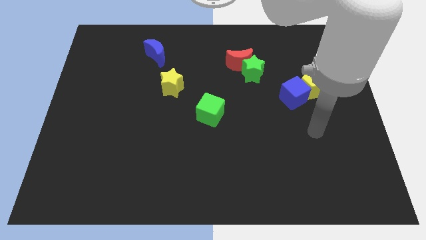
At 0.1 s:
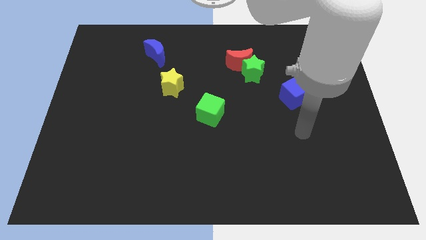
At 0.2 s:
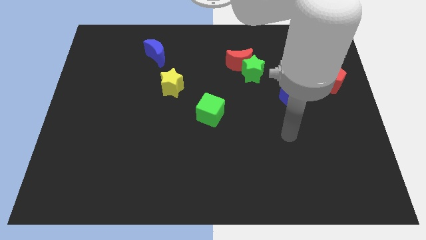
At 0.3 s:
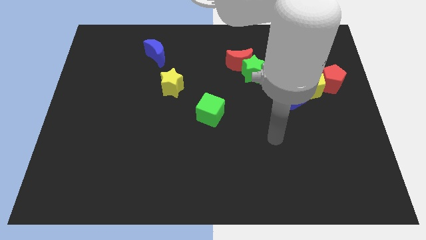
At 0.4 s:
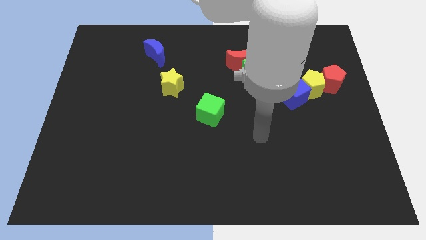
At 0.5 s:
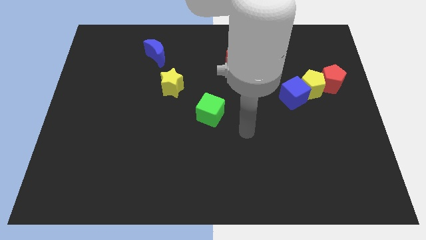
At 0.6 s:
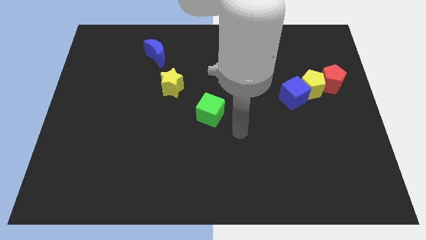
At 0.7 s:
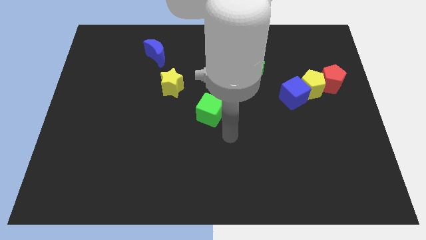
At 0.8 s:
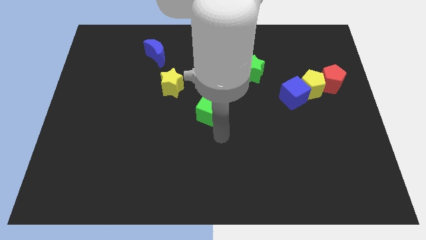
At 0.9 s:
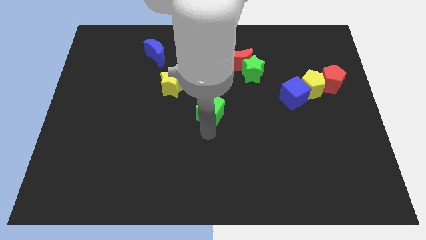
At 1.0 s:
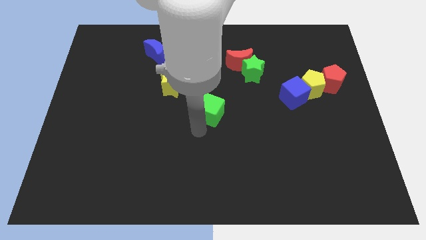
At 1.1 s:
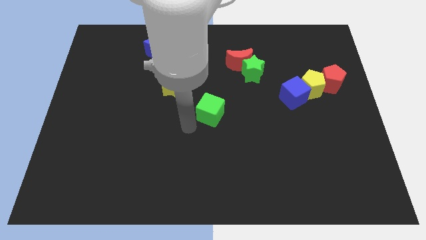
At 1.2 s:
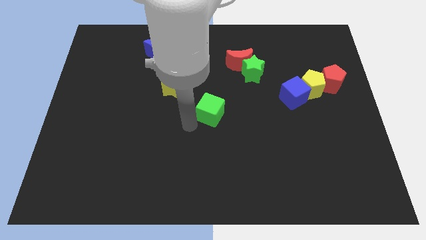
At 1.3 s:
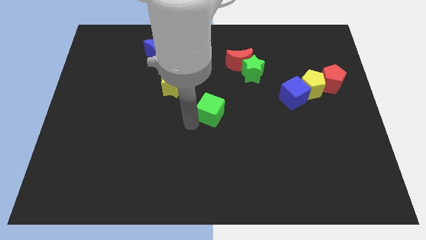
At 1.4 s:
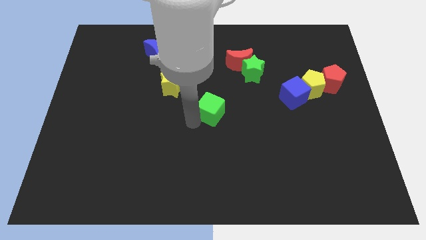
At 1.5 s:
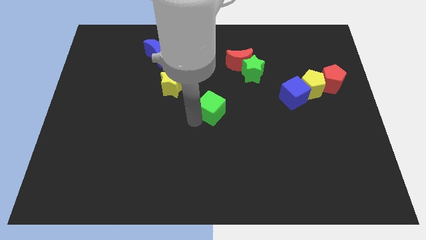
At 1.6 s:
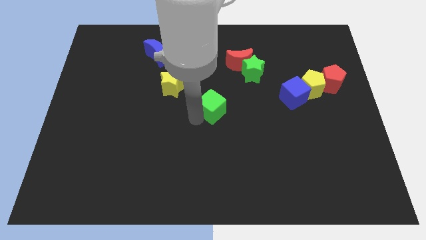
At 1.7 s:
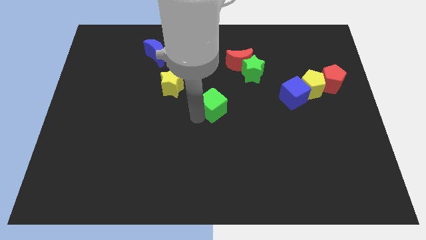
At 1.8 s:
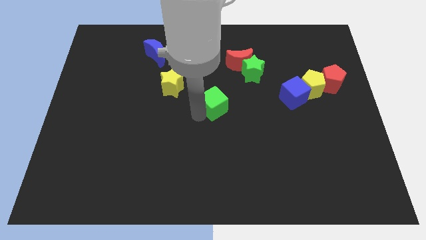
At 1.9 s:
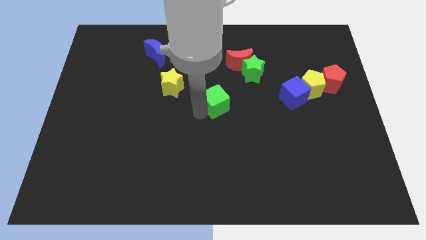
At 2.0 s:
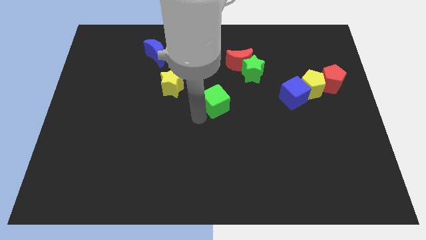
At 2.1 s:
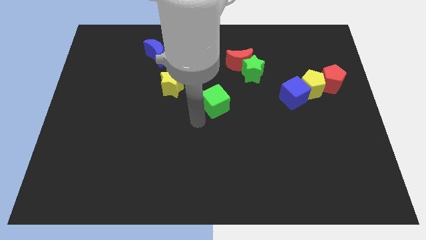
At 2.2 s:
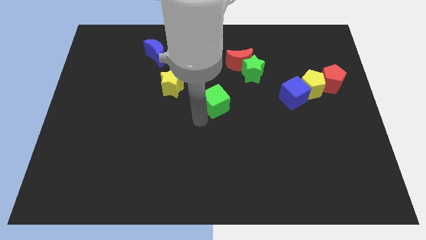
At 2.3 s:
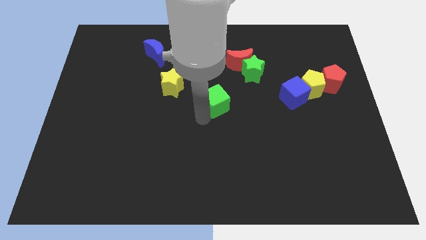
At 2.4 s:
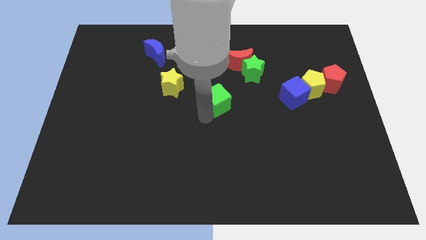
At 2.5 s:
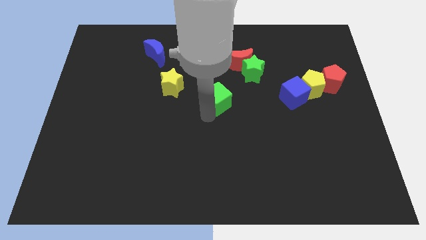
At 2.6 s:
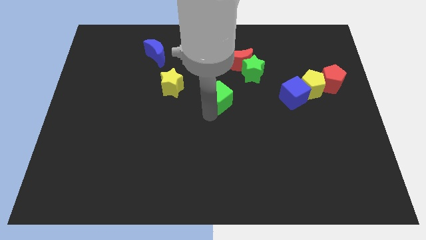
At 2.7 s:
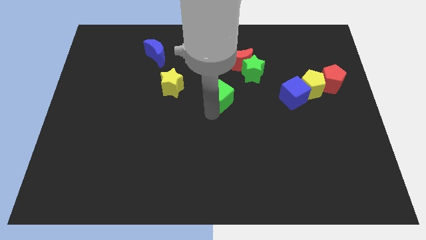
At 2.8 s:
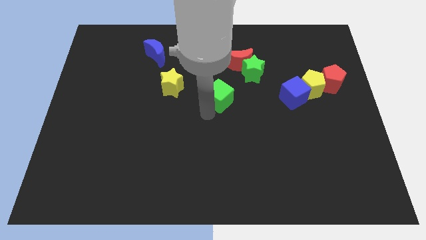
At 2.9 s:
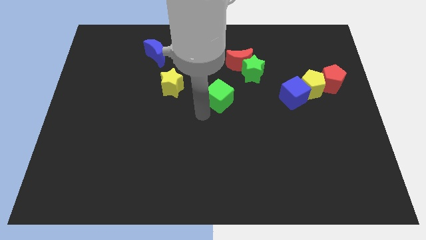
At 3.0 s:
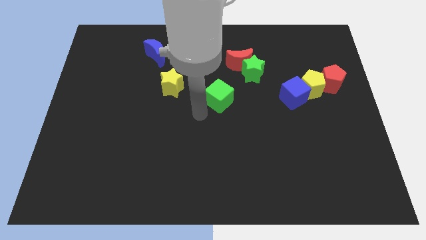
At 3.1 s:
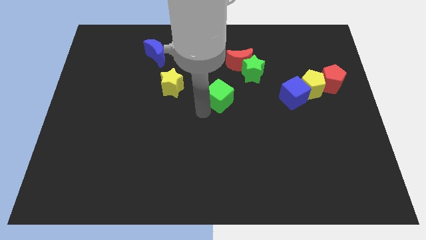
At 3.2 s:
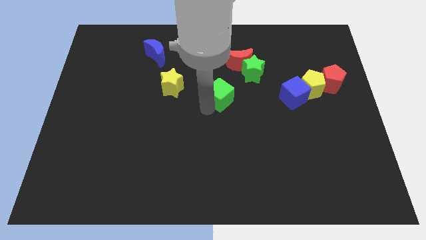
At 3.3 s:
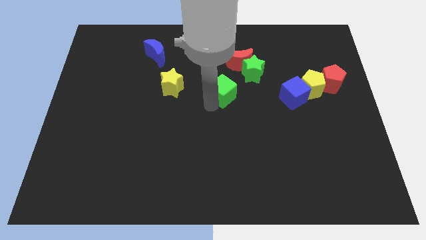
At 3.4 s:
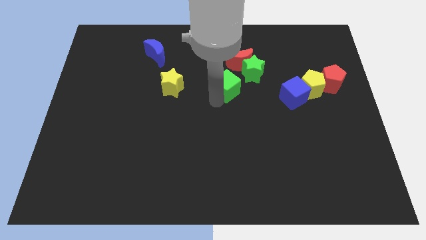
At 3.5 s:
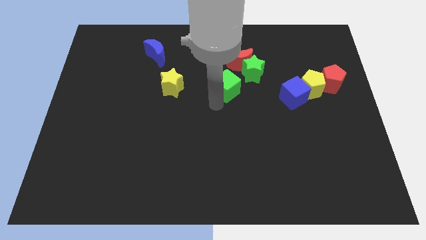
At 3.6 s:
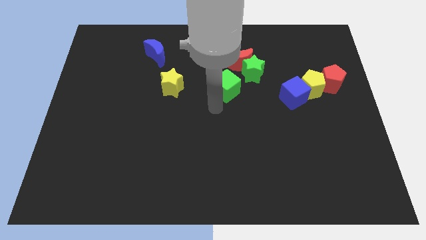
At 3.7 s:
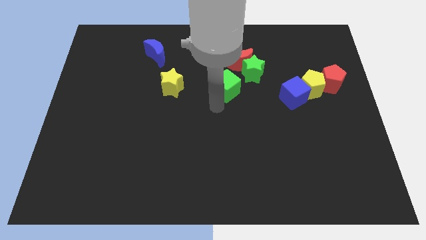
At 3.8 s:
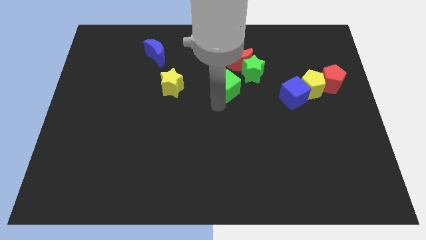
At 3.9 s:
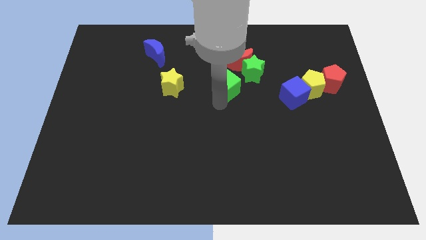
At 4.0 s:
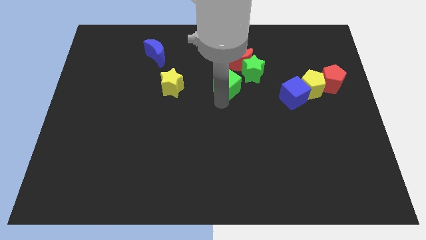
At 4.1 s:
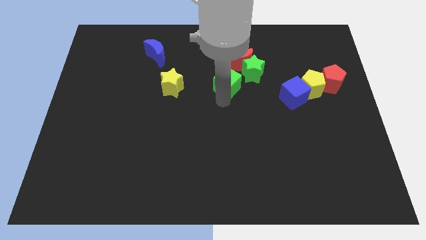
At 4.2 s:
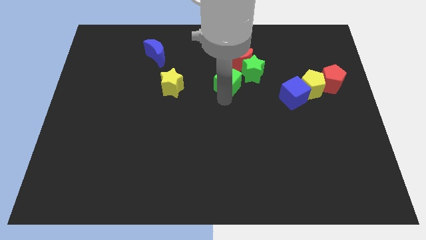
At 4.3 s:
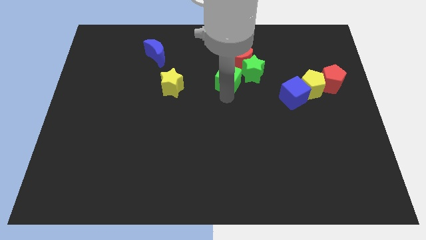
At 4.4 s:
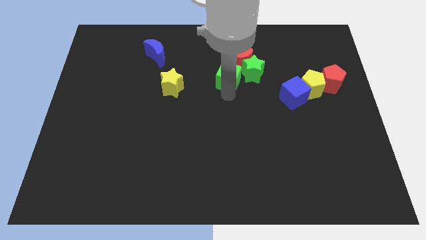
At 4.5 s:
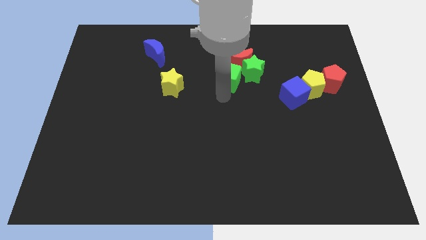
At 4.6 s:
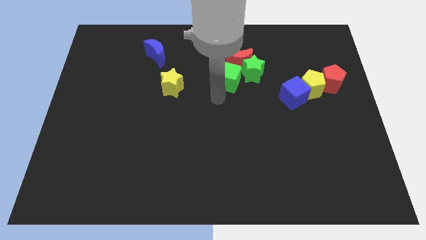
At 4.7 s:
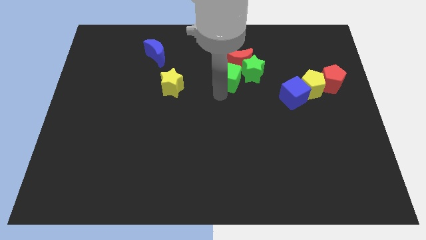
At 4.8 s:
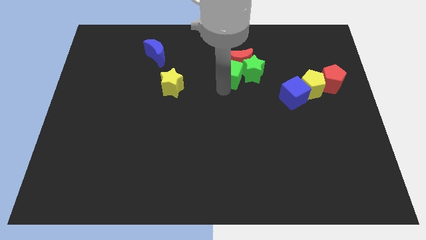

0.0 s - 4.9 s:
push the green cube close to the red moon

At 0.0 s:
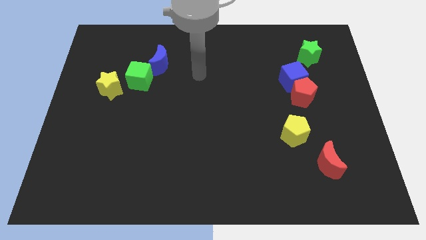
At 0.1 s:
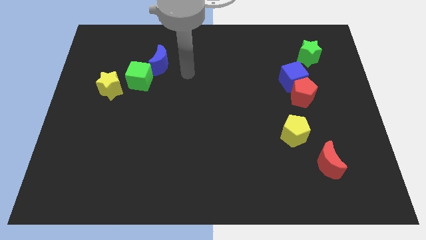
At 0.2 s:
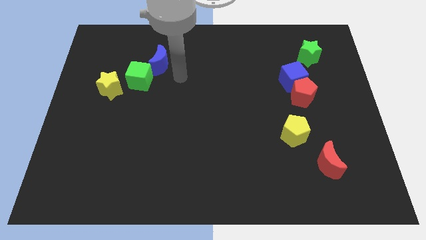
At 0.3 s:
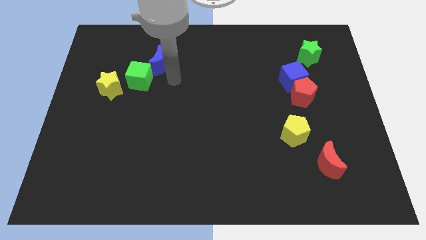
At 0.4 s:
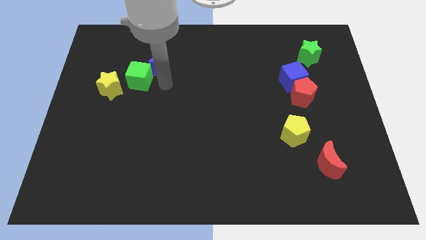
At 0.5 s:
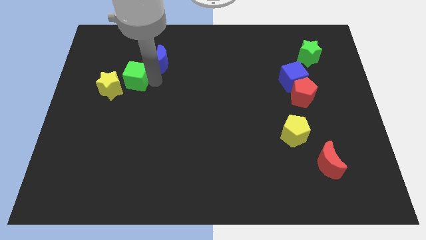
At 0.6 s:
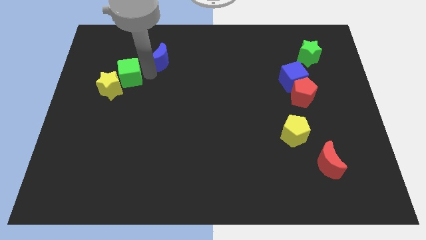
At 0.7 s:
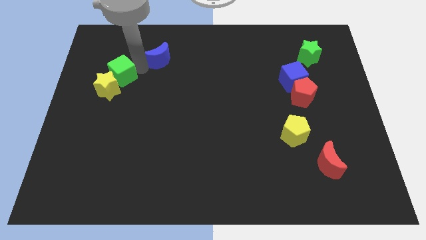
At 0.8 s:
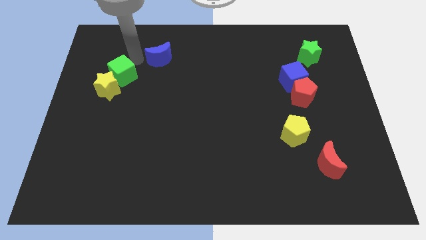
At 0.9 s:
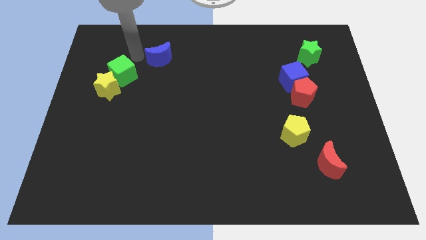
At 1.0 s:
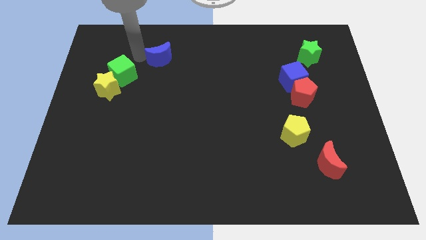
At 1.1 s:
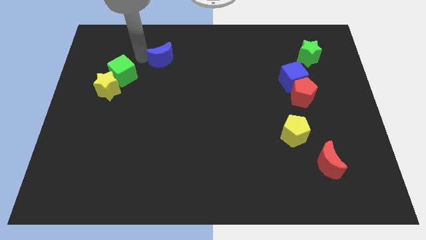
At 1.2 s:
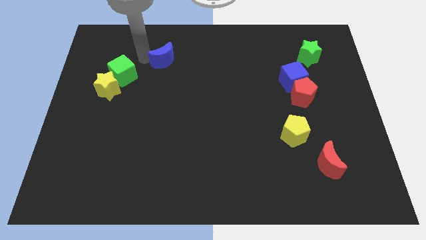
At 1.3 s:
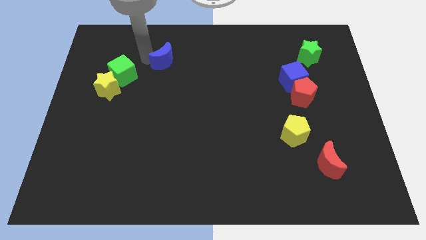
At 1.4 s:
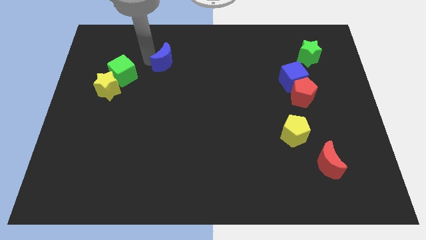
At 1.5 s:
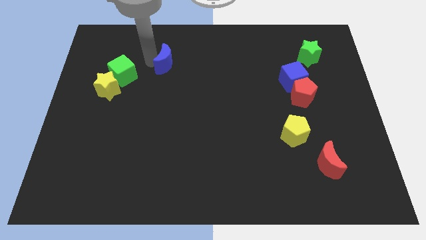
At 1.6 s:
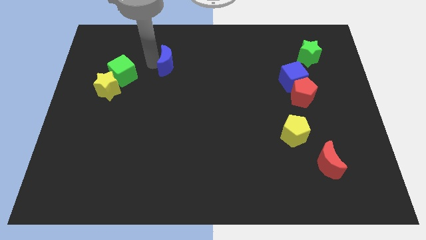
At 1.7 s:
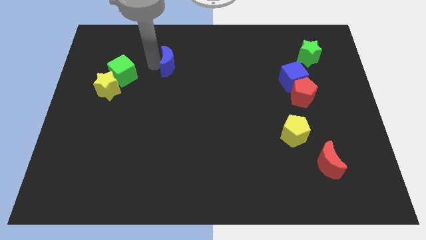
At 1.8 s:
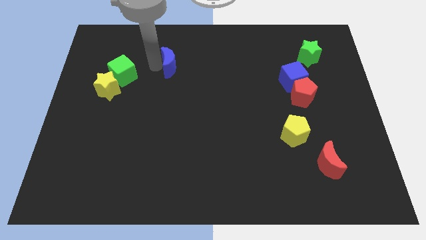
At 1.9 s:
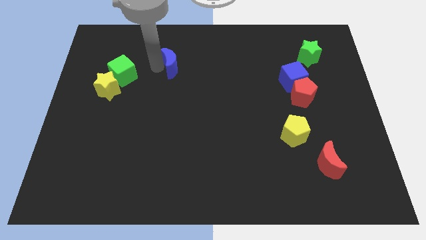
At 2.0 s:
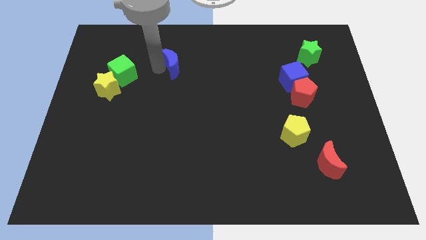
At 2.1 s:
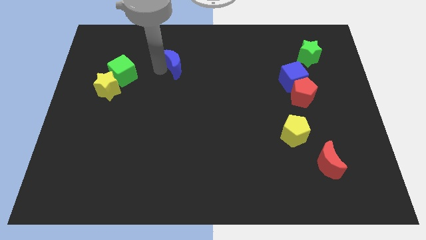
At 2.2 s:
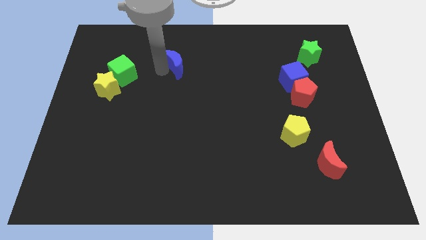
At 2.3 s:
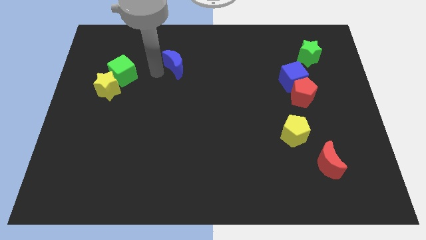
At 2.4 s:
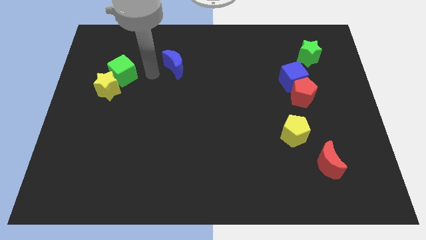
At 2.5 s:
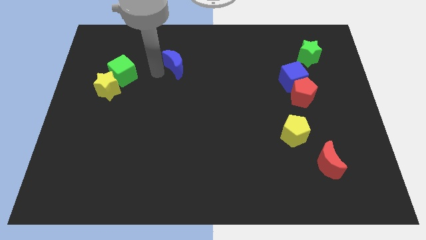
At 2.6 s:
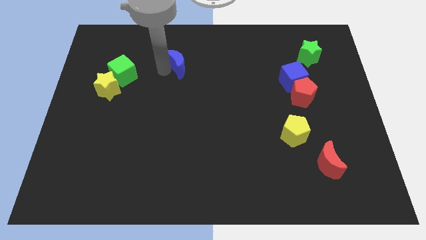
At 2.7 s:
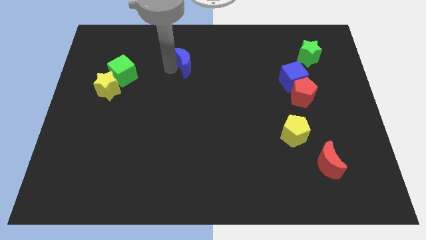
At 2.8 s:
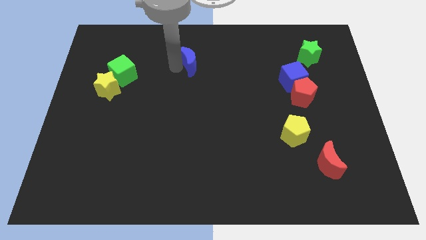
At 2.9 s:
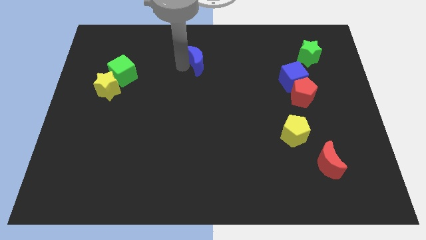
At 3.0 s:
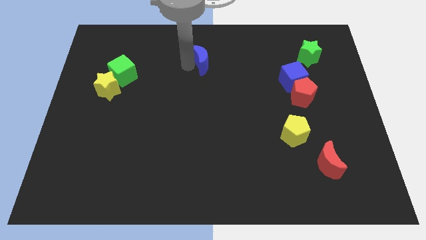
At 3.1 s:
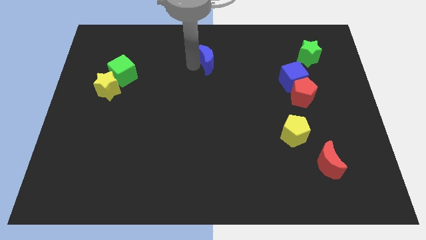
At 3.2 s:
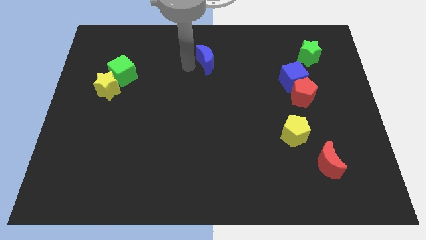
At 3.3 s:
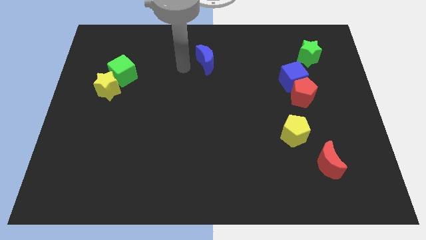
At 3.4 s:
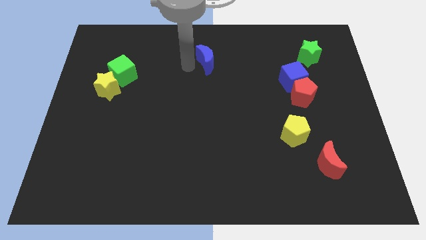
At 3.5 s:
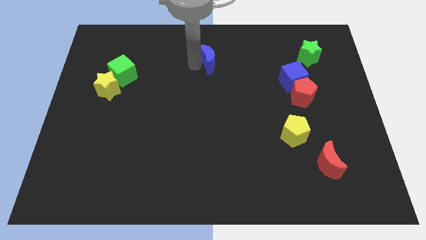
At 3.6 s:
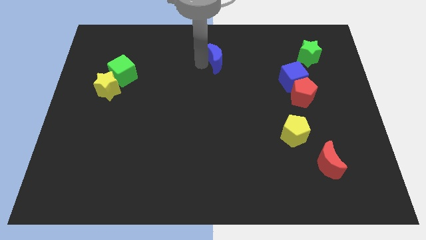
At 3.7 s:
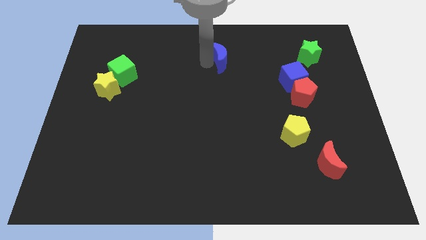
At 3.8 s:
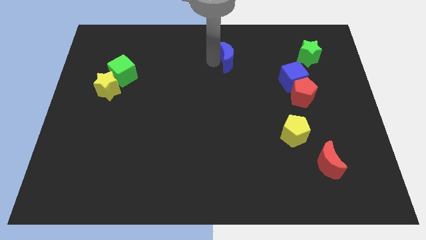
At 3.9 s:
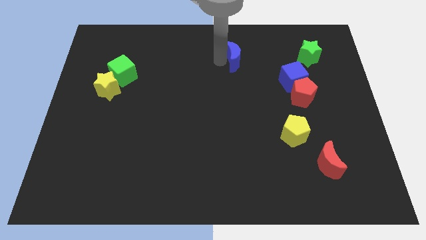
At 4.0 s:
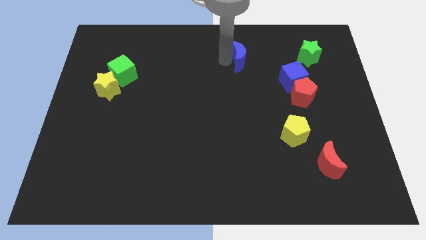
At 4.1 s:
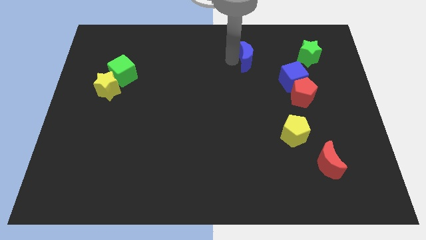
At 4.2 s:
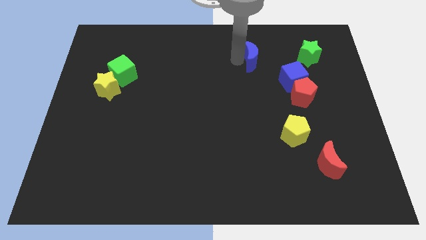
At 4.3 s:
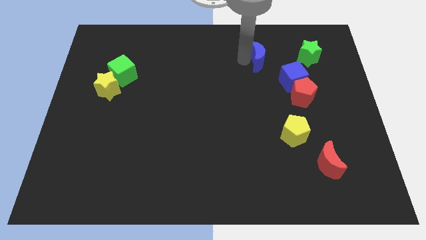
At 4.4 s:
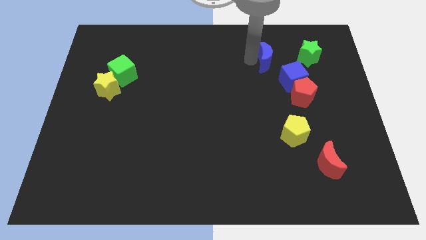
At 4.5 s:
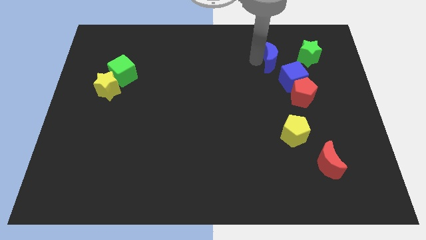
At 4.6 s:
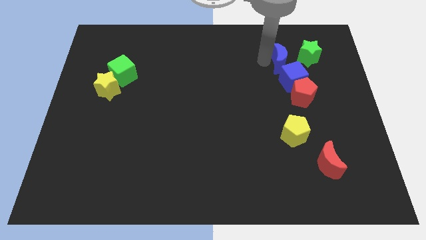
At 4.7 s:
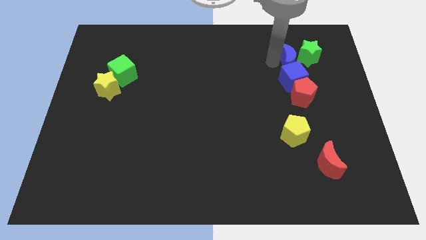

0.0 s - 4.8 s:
put the blue moon to the green star
